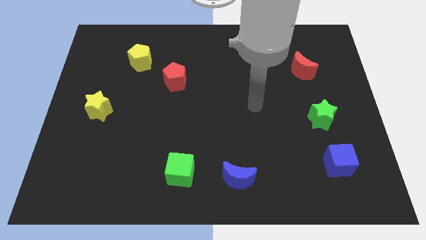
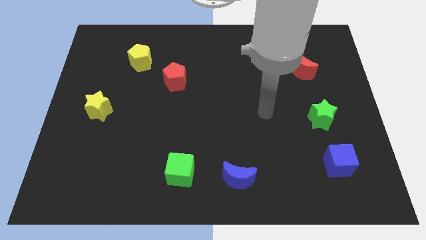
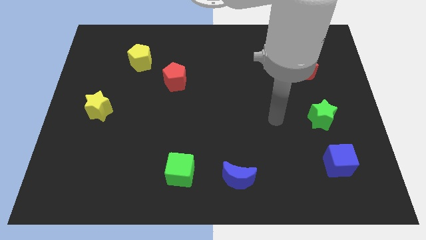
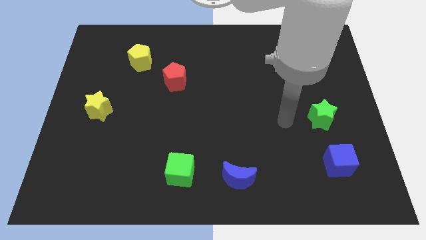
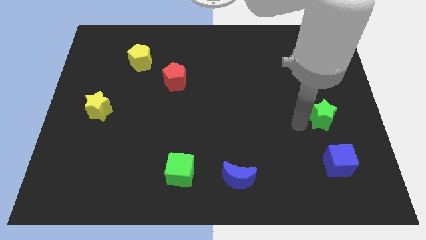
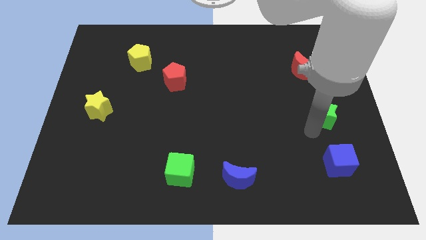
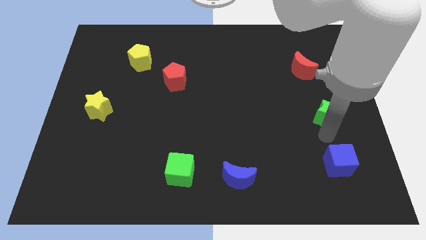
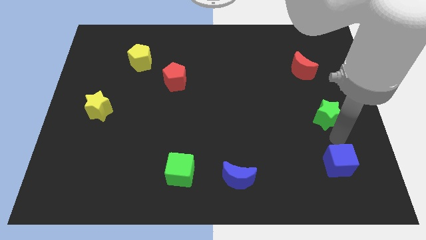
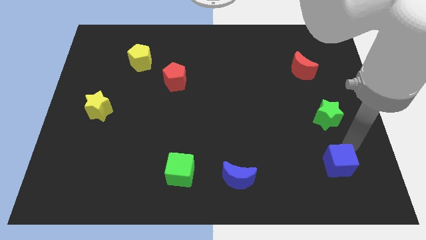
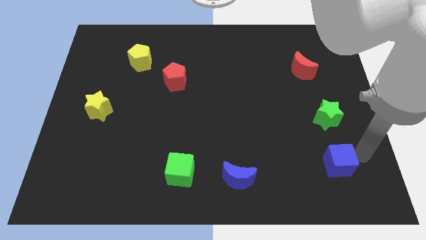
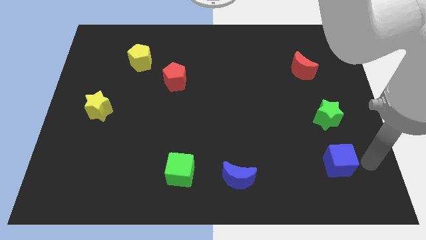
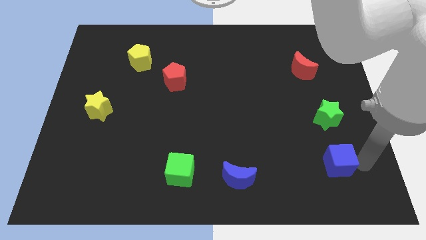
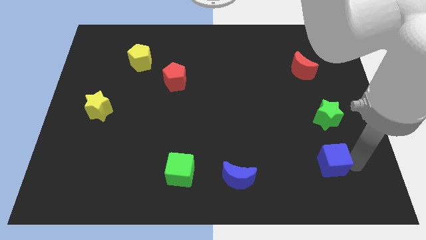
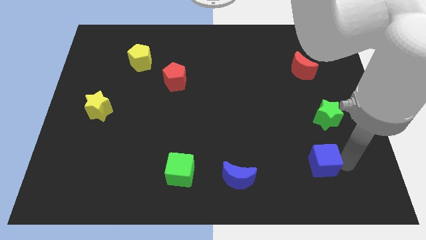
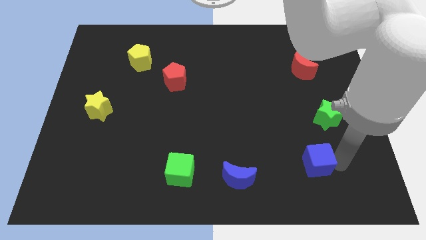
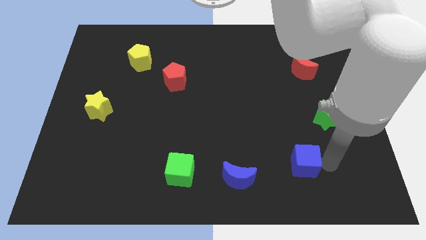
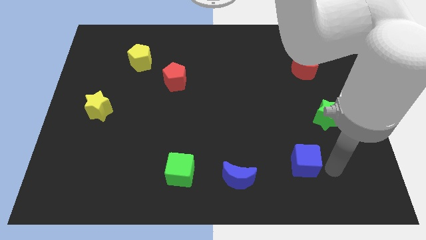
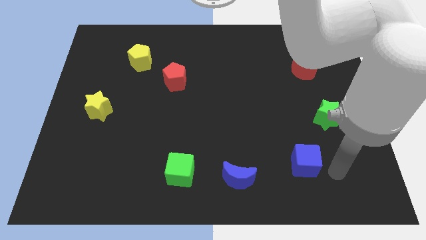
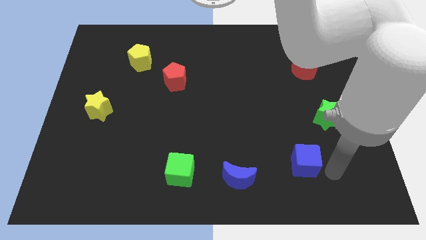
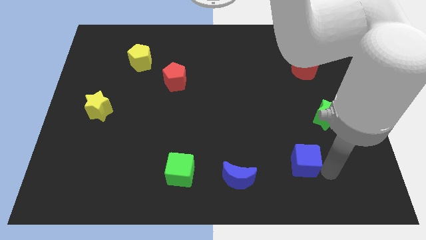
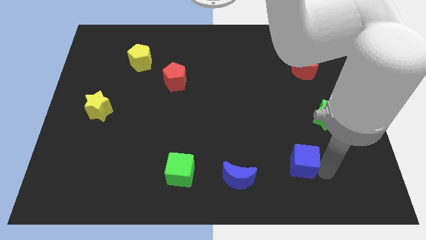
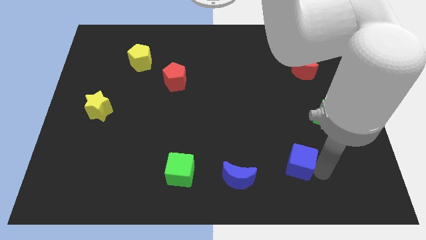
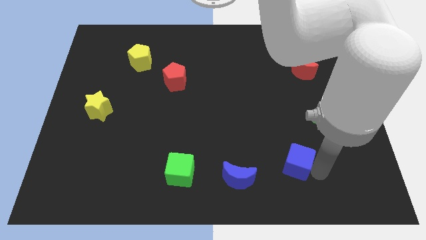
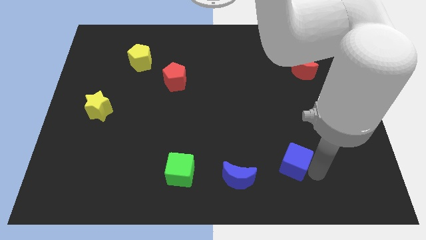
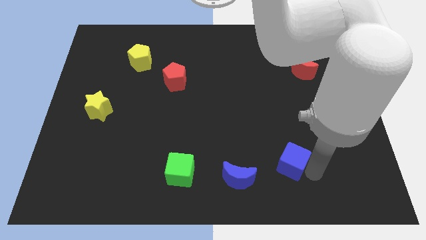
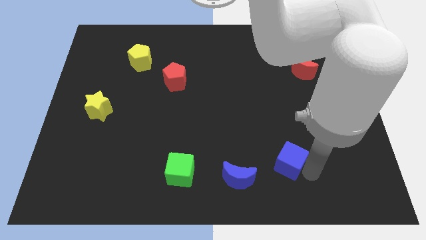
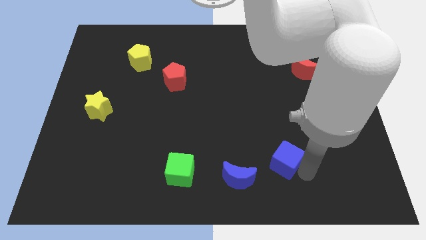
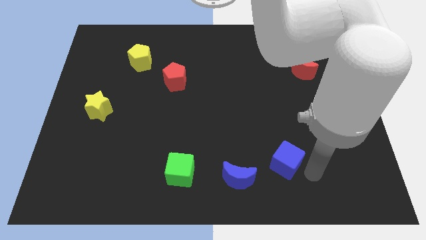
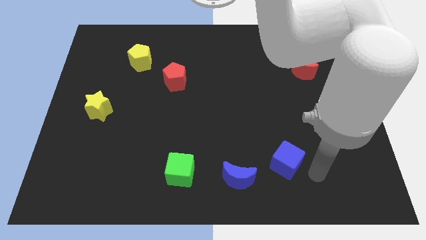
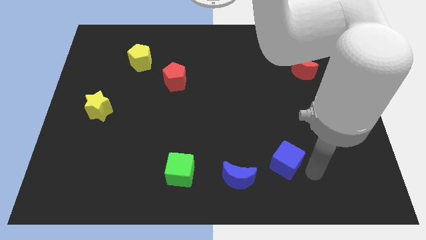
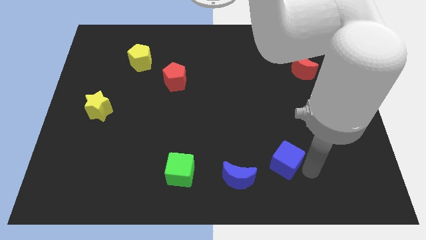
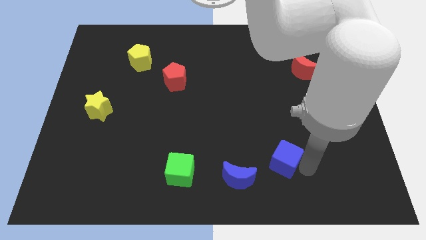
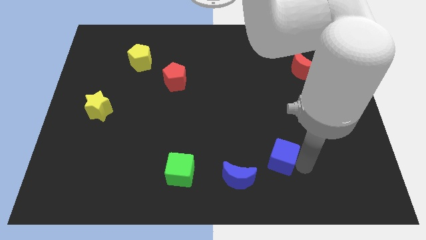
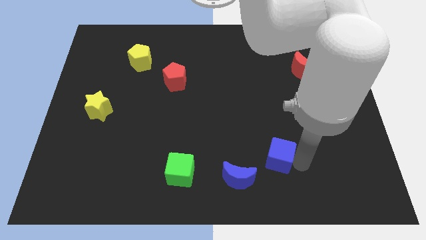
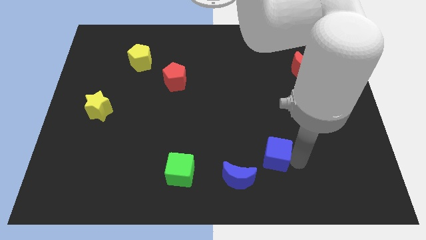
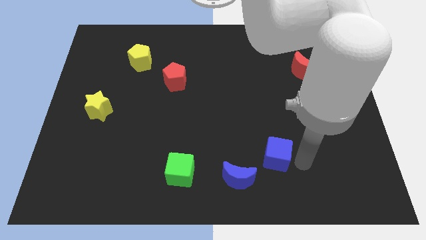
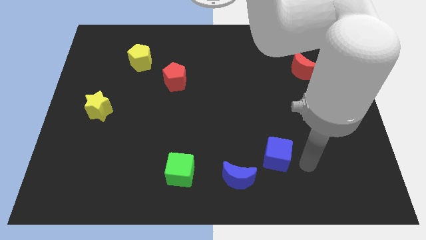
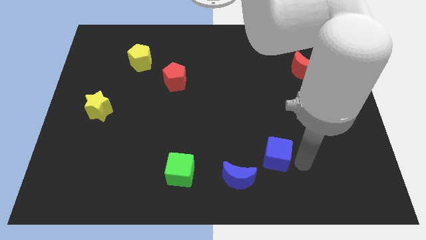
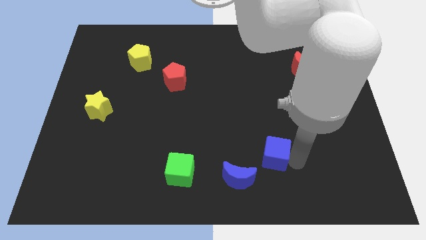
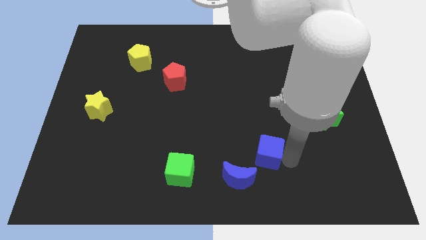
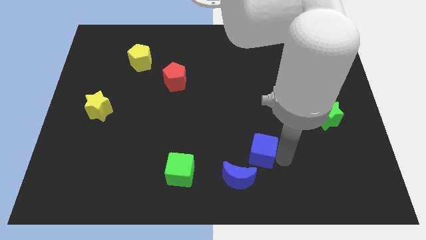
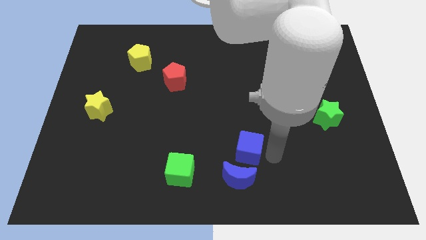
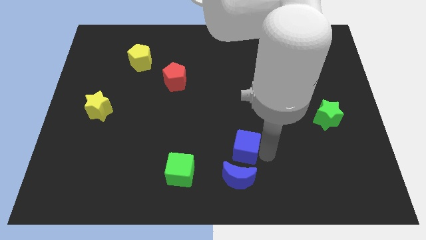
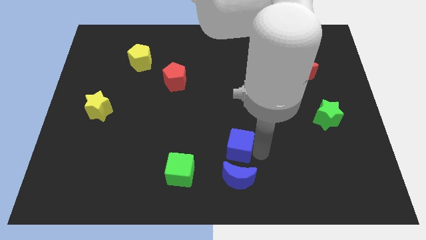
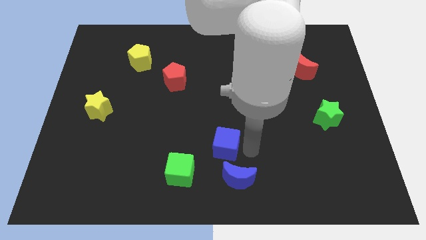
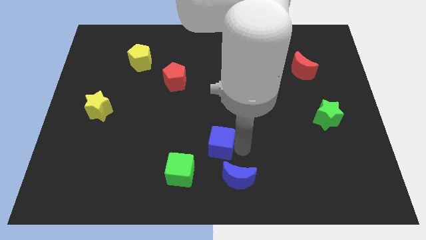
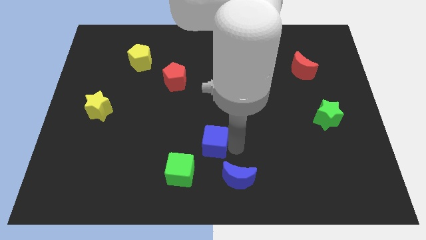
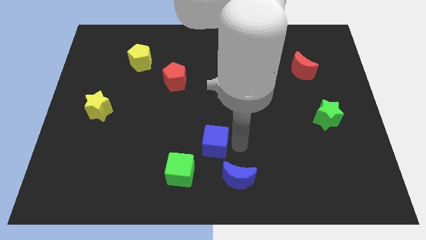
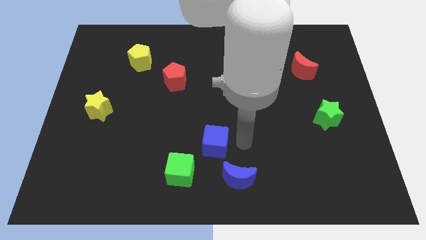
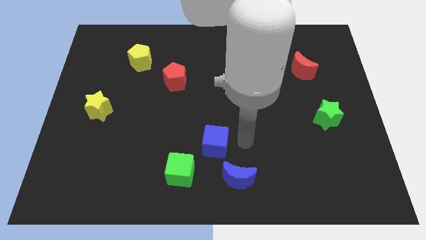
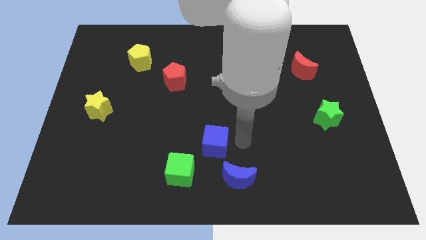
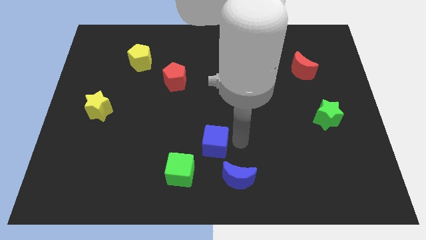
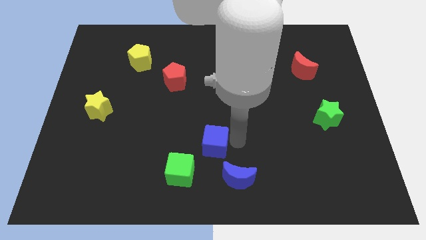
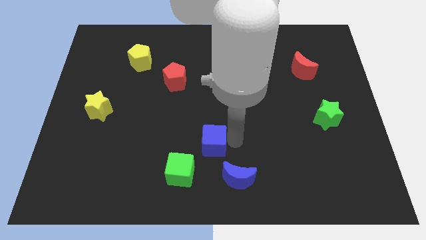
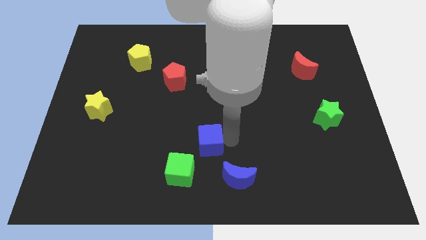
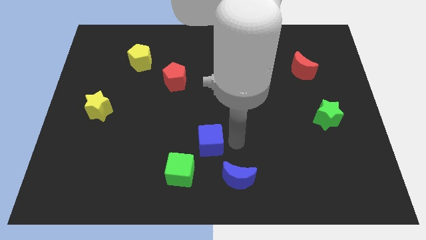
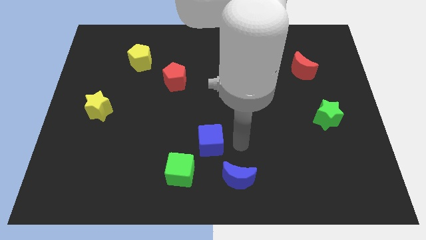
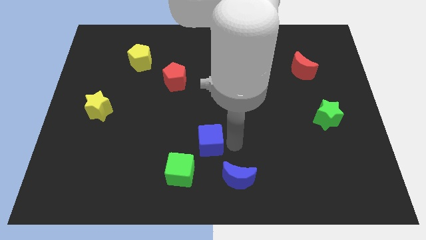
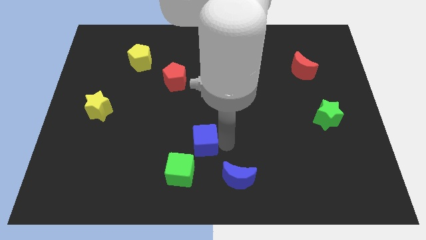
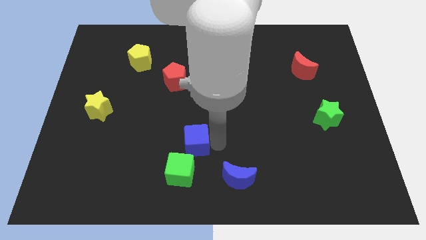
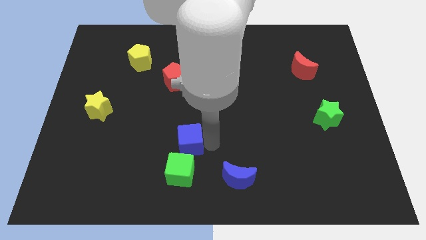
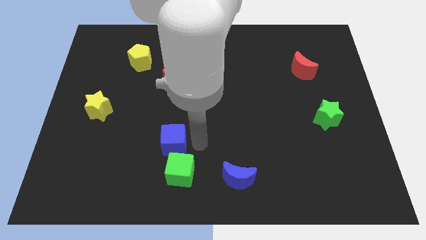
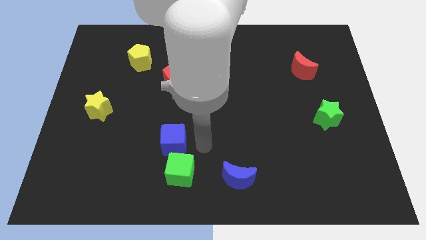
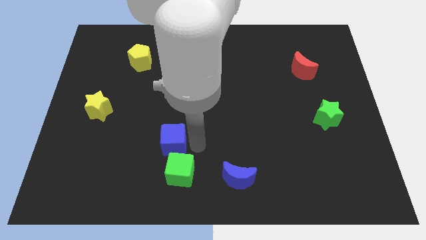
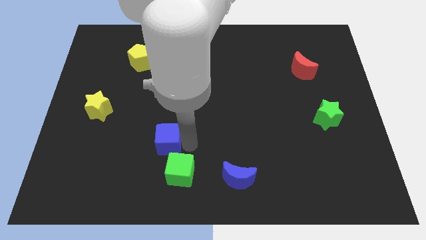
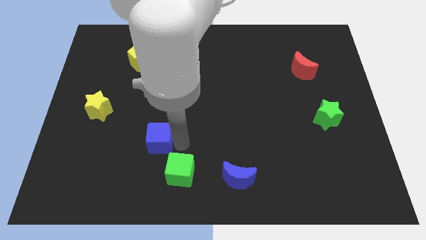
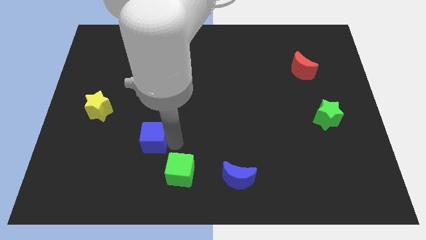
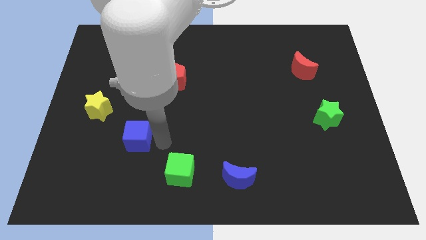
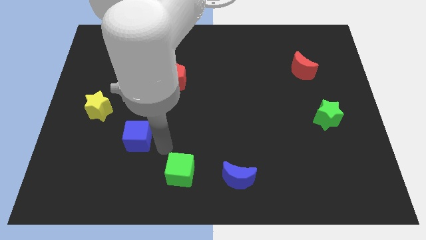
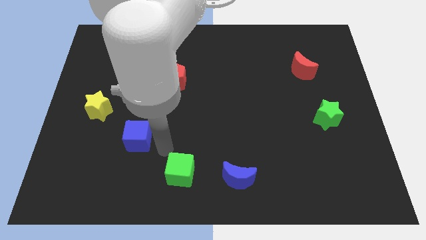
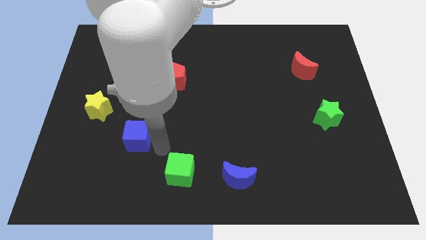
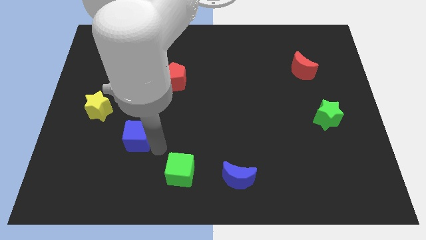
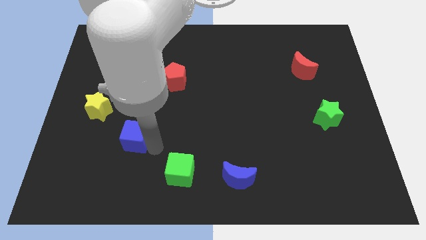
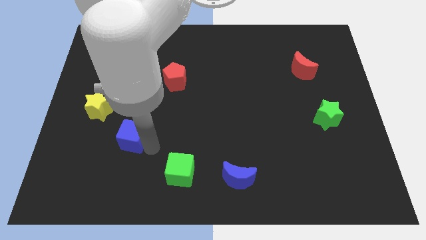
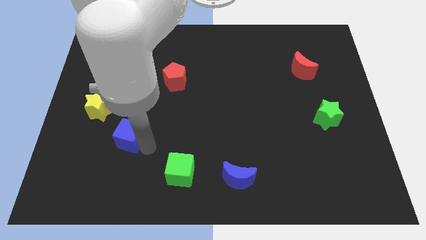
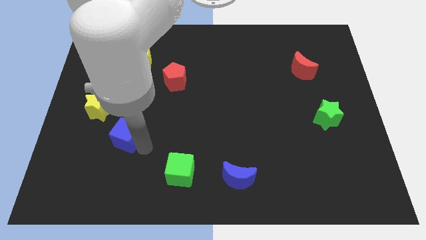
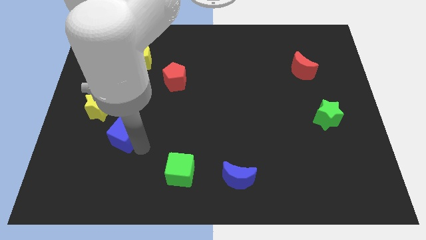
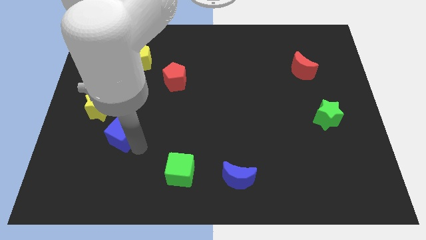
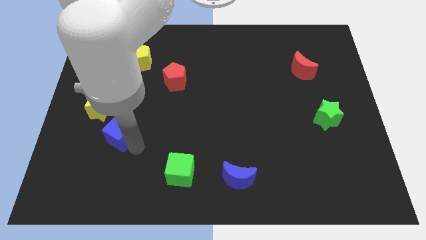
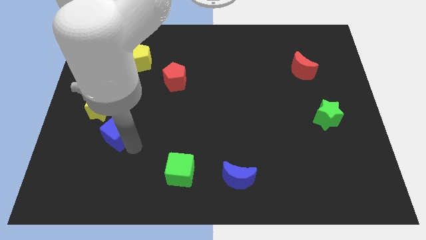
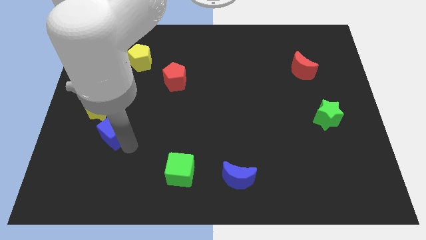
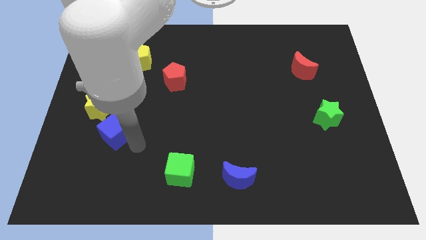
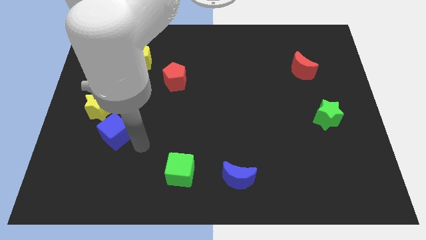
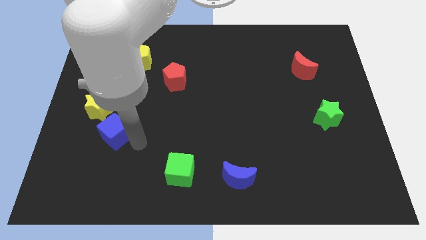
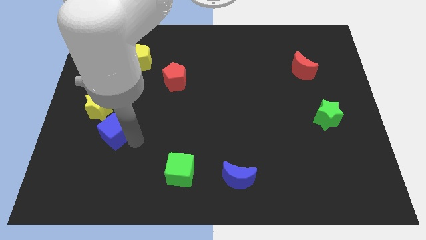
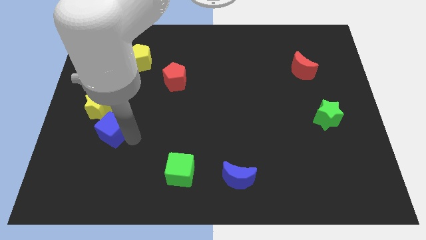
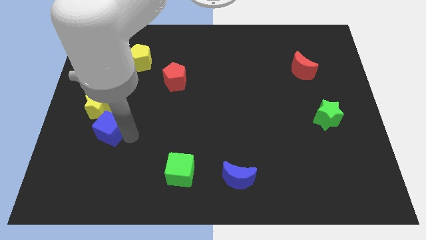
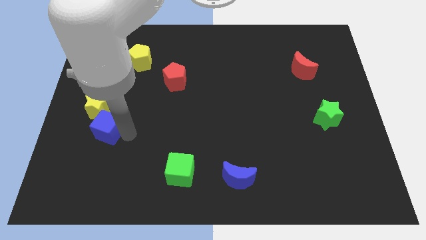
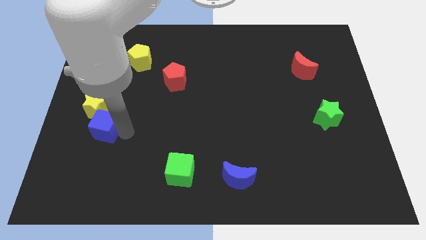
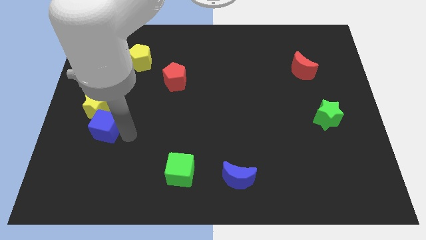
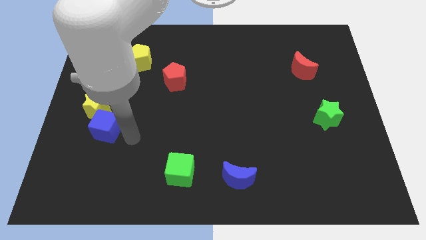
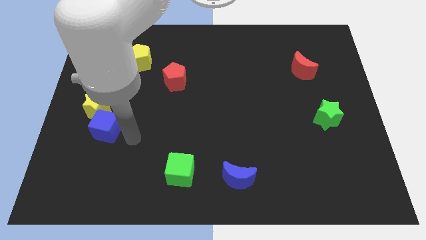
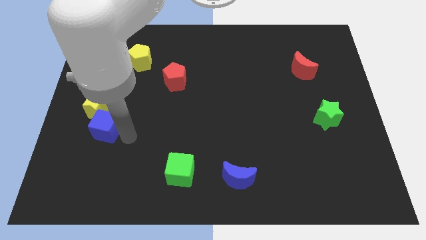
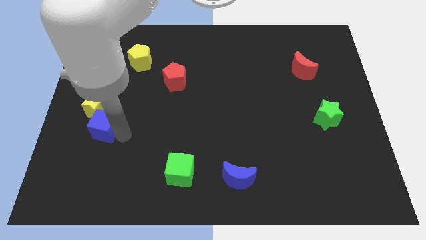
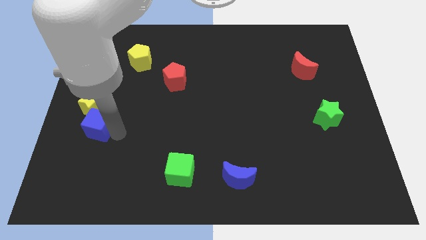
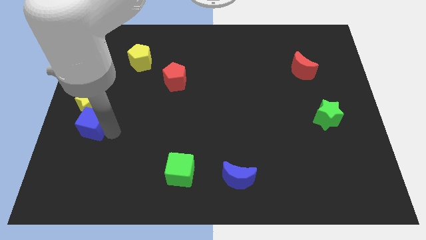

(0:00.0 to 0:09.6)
put the blue cube to the center left
